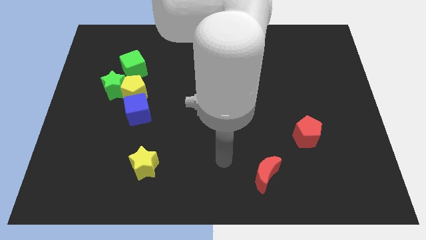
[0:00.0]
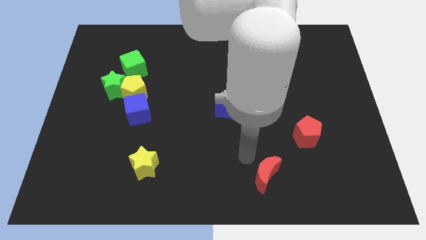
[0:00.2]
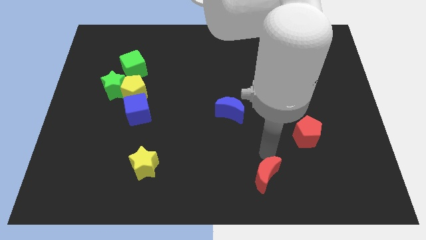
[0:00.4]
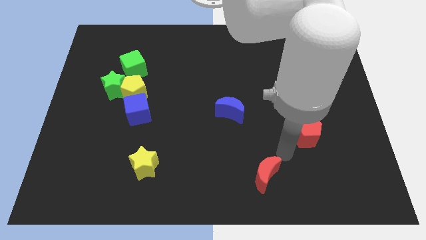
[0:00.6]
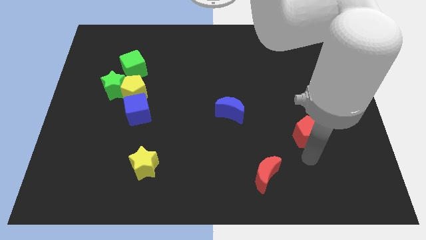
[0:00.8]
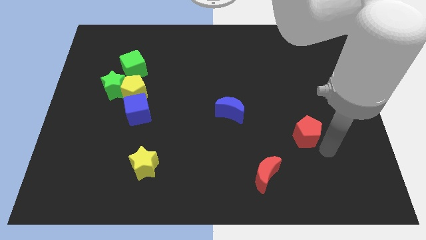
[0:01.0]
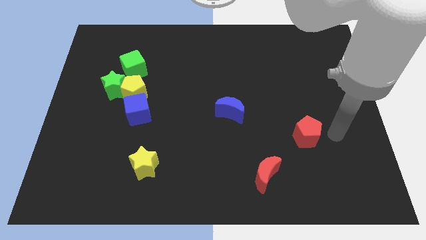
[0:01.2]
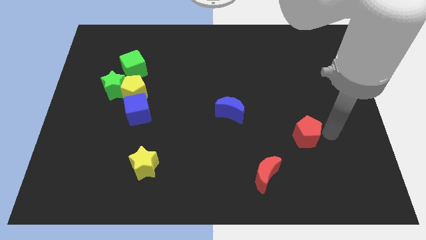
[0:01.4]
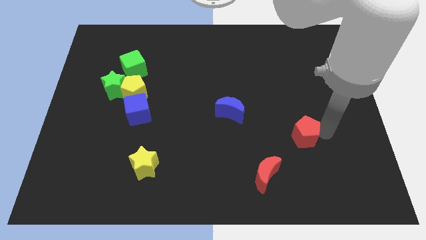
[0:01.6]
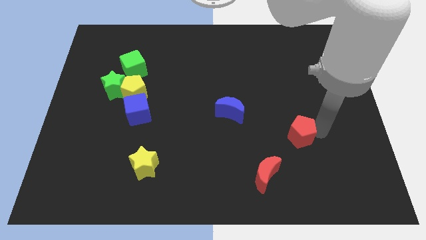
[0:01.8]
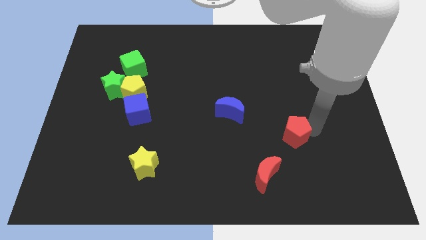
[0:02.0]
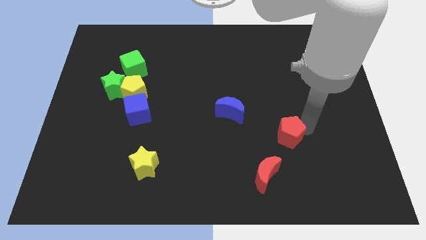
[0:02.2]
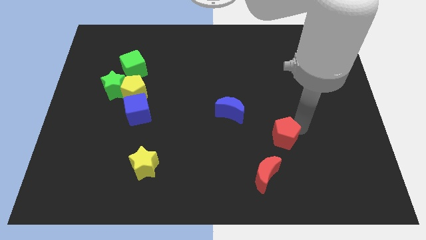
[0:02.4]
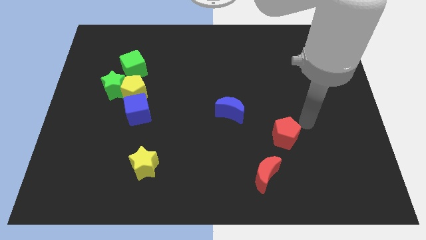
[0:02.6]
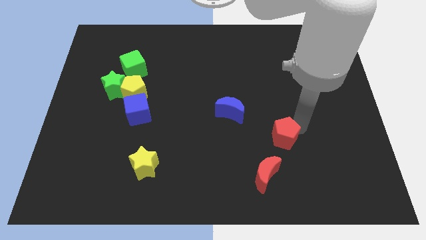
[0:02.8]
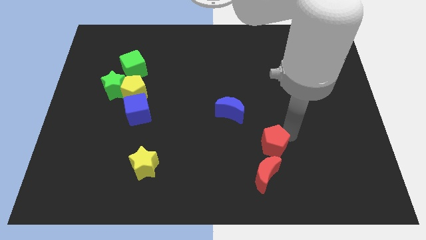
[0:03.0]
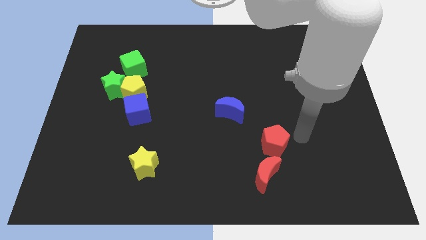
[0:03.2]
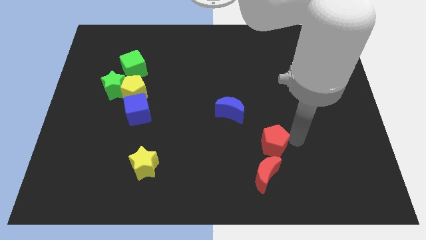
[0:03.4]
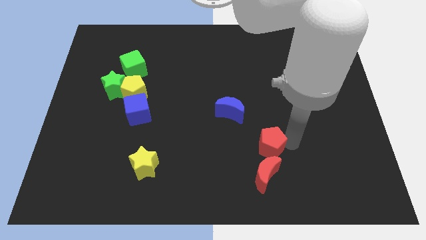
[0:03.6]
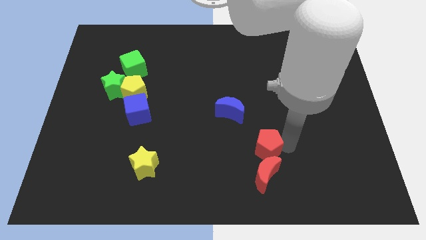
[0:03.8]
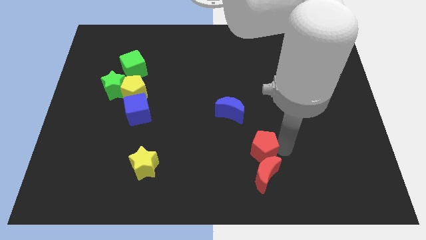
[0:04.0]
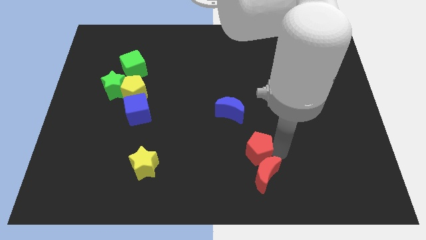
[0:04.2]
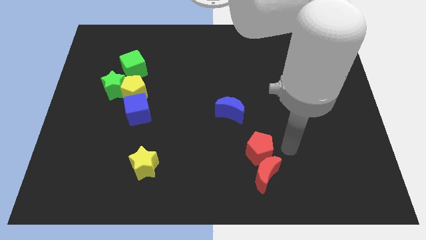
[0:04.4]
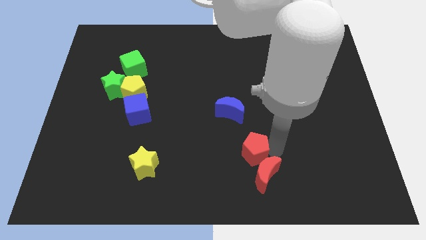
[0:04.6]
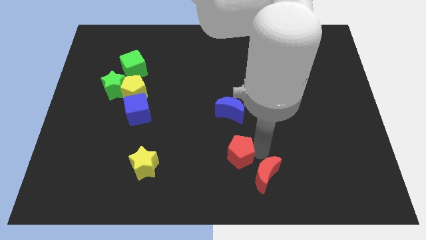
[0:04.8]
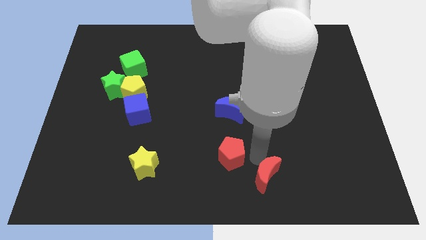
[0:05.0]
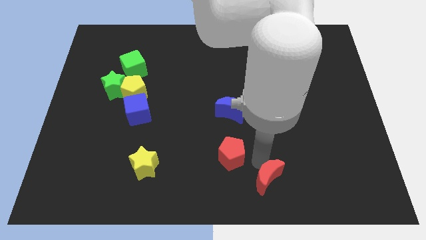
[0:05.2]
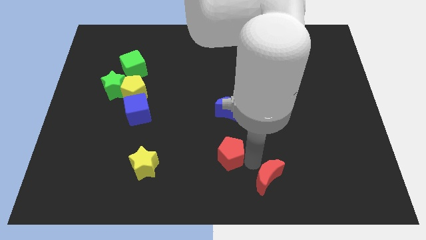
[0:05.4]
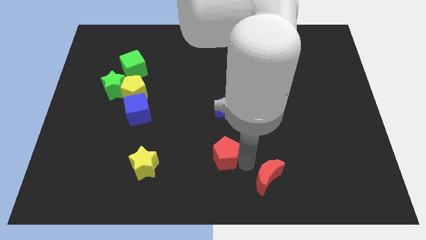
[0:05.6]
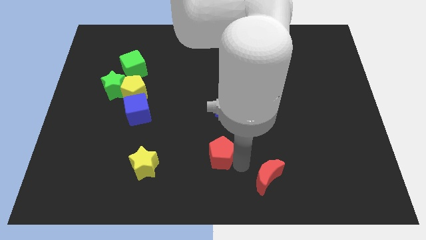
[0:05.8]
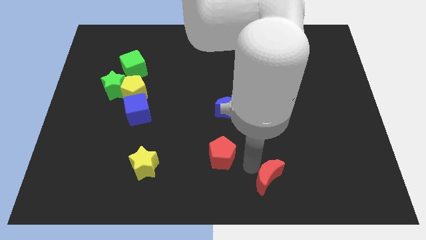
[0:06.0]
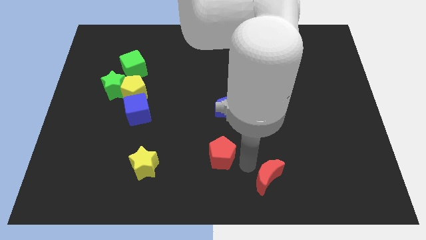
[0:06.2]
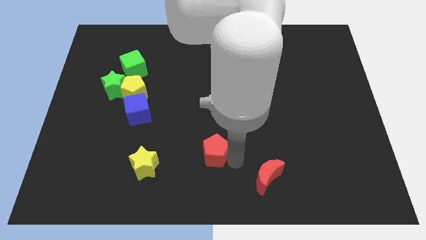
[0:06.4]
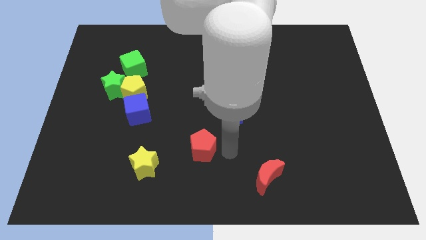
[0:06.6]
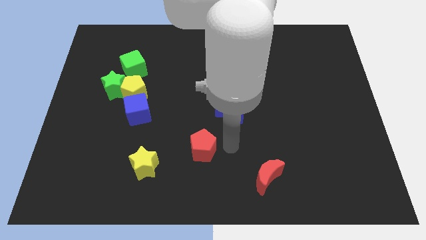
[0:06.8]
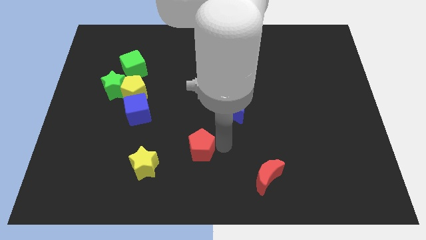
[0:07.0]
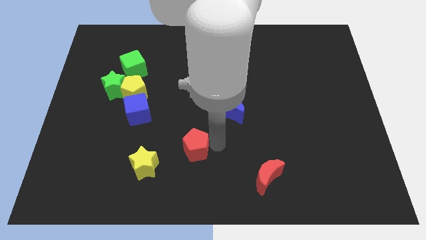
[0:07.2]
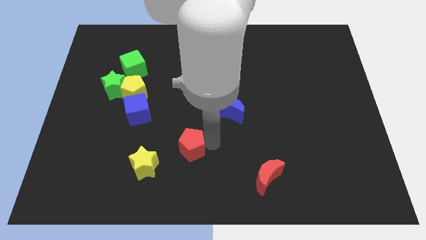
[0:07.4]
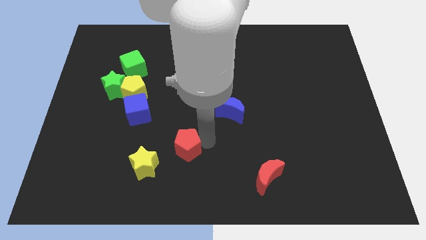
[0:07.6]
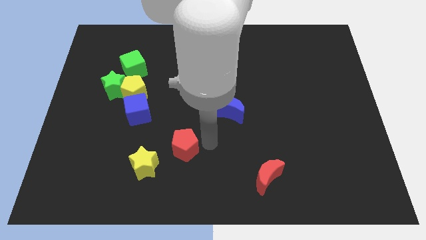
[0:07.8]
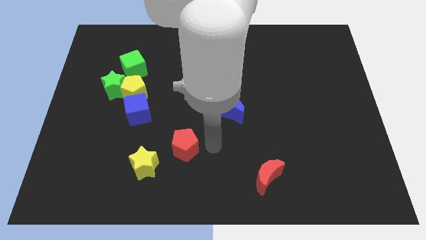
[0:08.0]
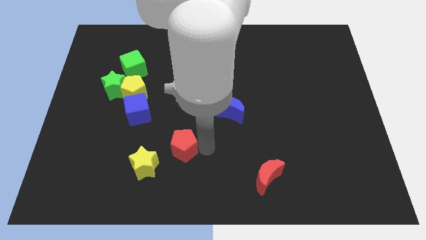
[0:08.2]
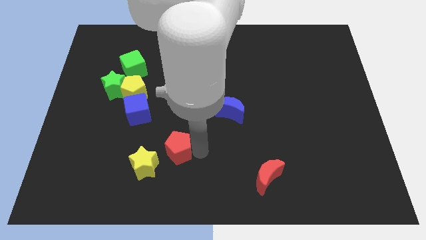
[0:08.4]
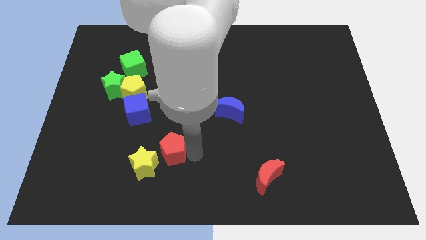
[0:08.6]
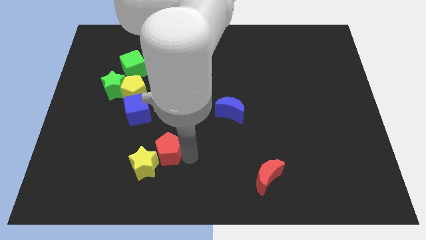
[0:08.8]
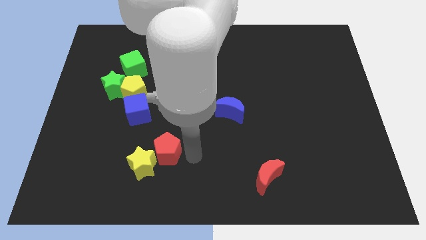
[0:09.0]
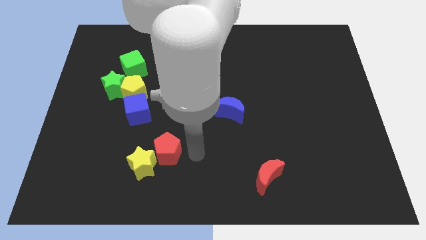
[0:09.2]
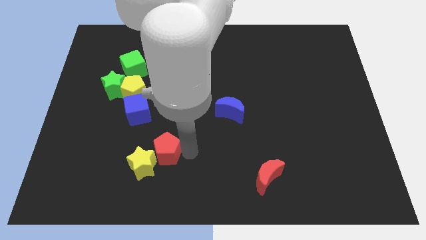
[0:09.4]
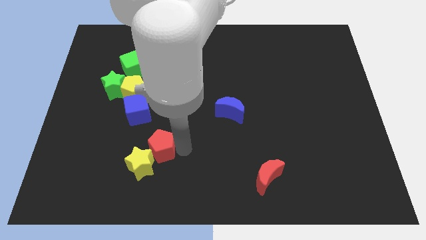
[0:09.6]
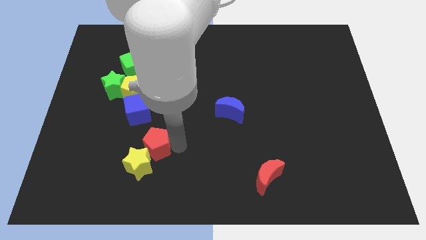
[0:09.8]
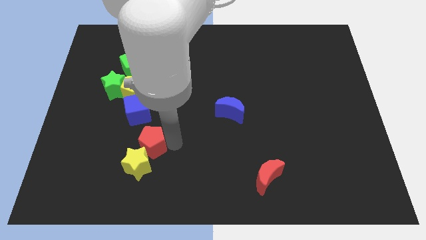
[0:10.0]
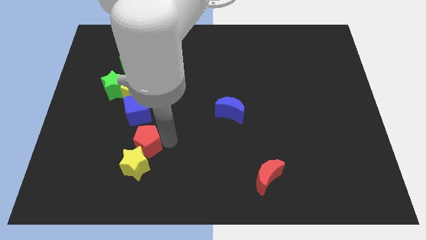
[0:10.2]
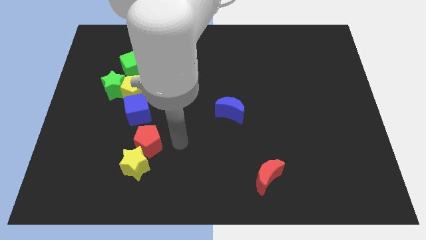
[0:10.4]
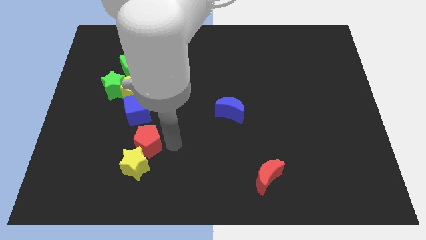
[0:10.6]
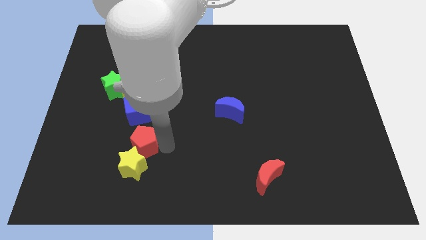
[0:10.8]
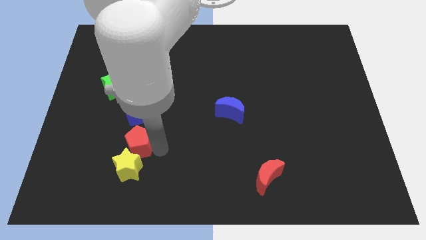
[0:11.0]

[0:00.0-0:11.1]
put the red pentagon to the top left side of the yellow star

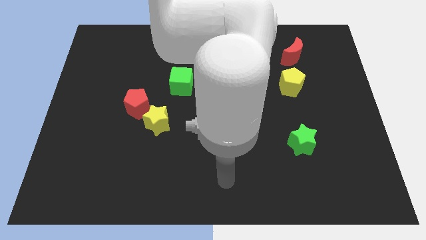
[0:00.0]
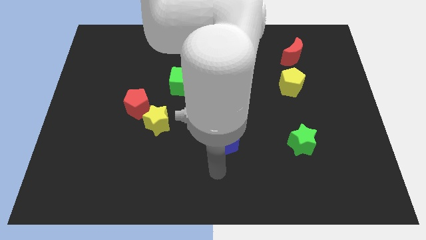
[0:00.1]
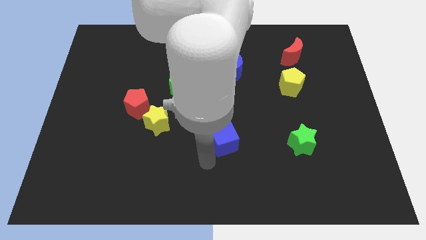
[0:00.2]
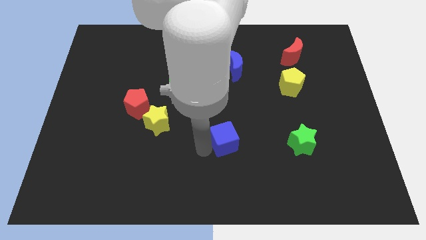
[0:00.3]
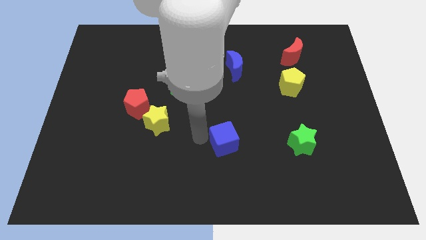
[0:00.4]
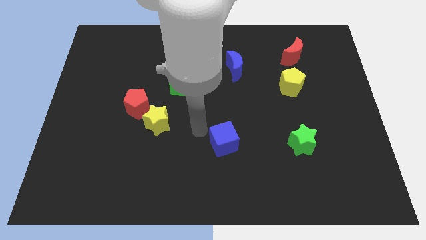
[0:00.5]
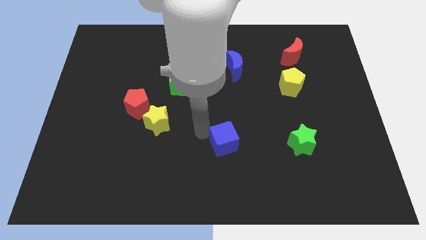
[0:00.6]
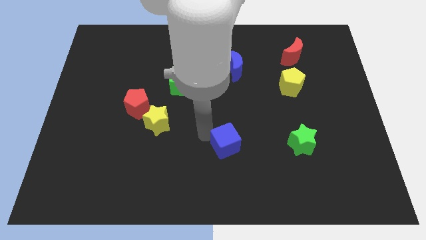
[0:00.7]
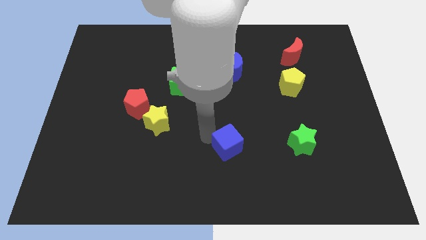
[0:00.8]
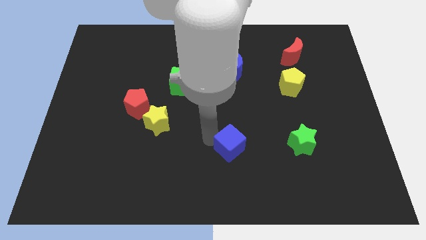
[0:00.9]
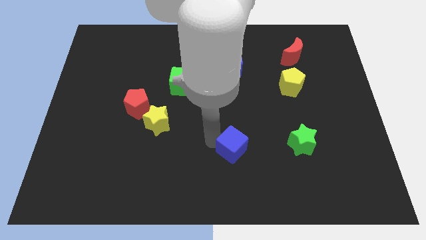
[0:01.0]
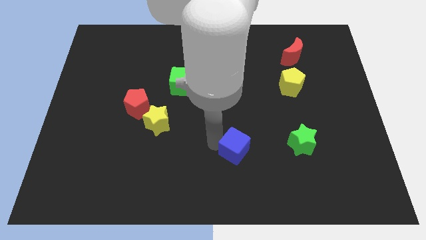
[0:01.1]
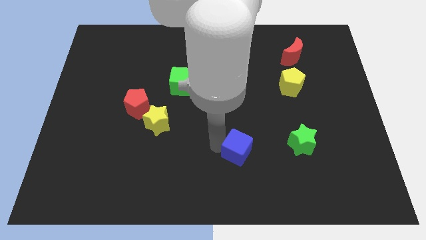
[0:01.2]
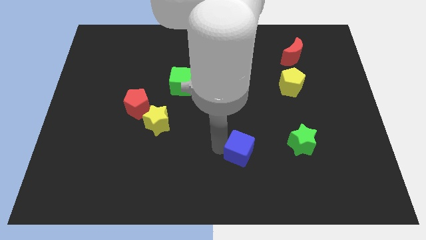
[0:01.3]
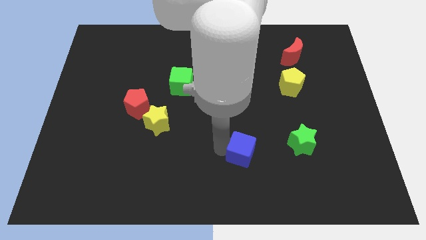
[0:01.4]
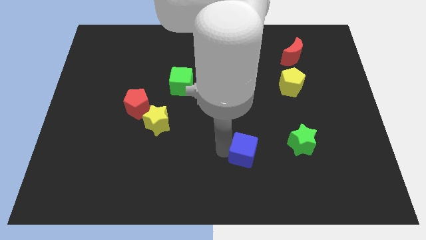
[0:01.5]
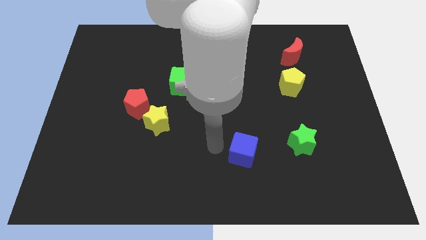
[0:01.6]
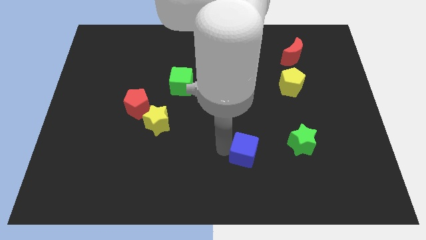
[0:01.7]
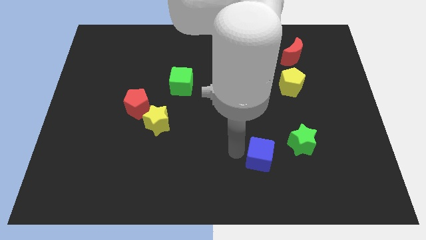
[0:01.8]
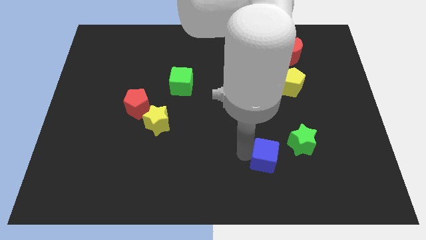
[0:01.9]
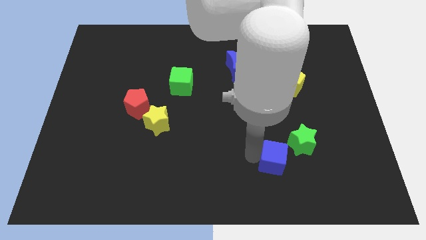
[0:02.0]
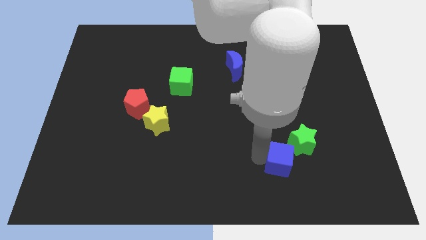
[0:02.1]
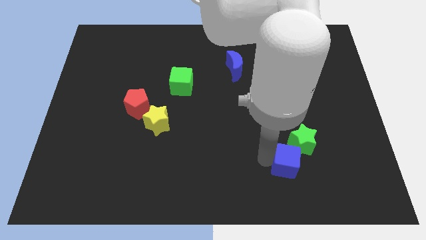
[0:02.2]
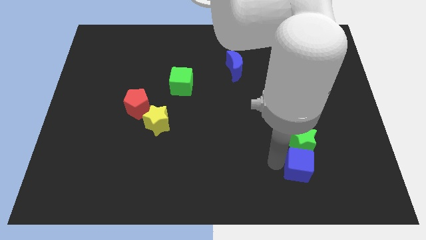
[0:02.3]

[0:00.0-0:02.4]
slide the blue cube diagonally down and to the right of the green star
